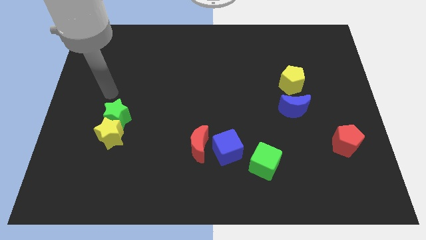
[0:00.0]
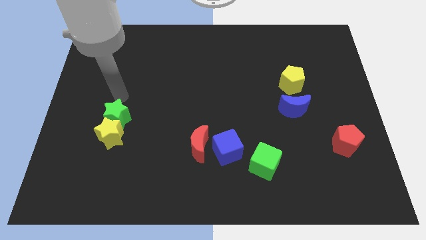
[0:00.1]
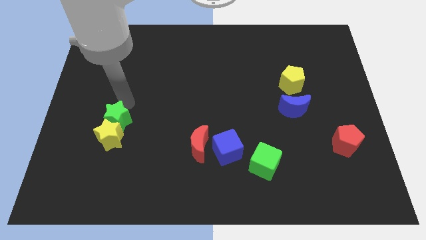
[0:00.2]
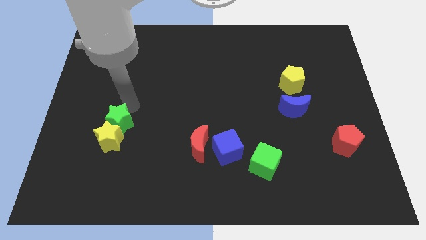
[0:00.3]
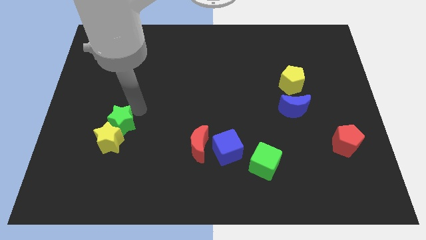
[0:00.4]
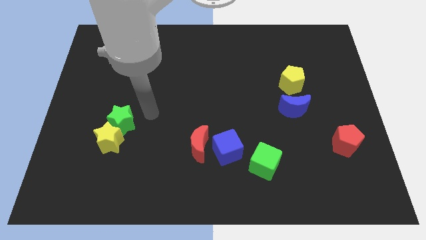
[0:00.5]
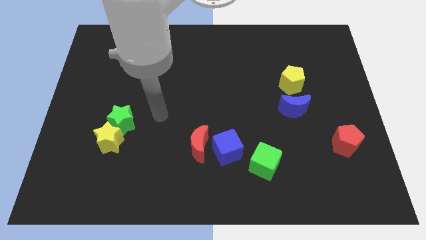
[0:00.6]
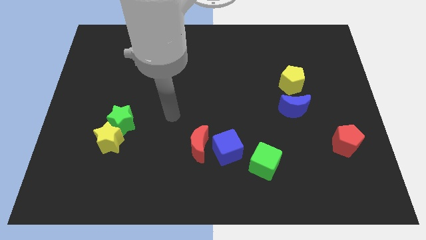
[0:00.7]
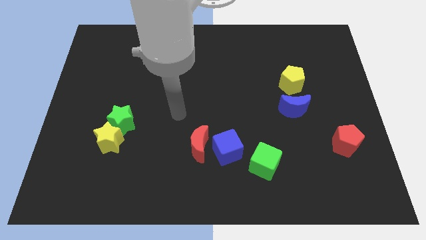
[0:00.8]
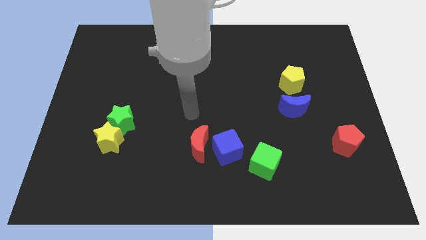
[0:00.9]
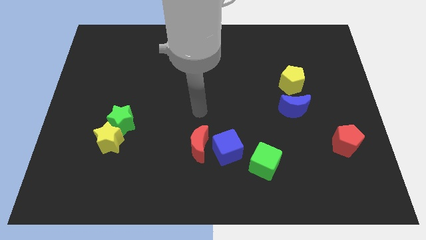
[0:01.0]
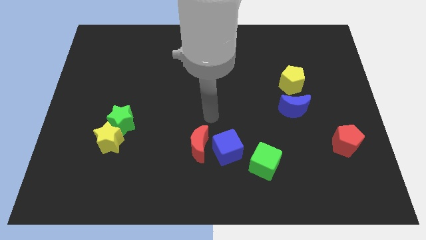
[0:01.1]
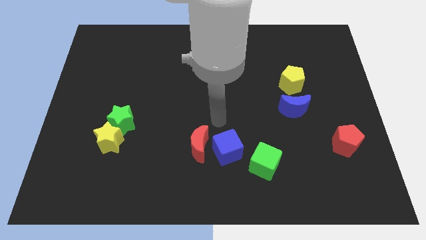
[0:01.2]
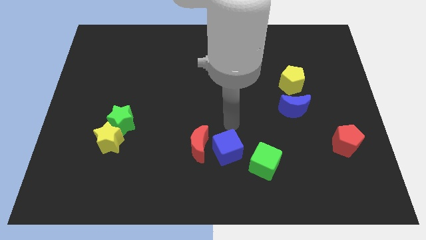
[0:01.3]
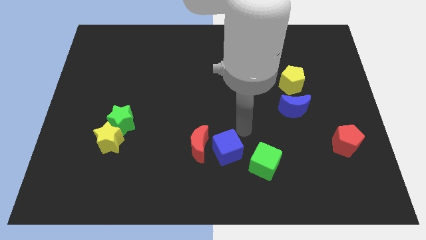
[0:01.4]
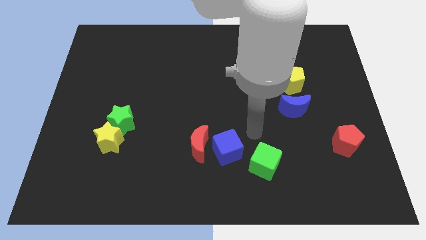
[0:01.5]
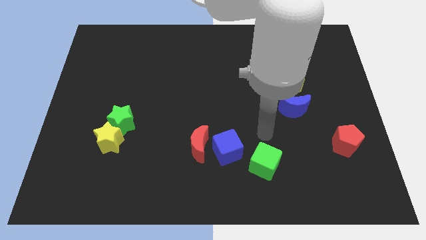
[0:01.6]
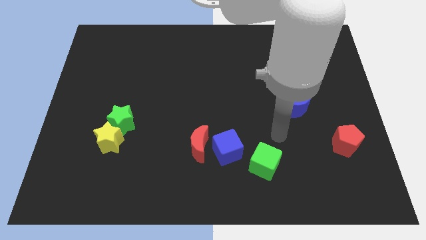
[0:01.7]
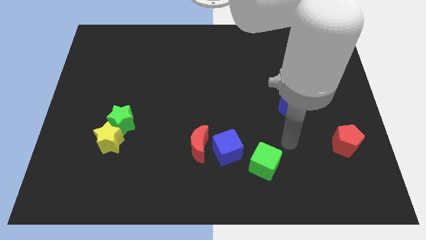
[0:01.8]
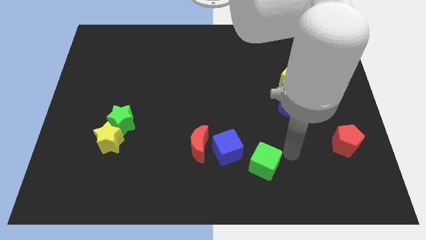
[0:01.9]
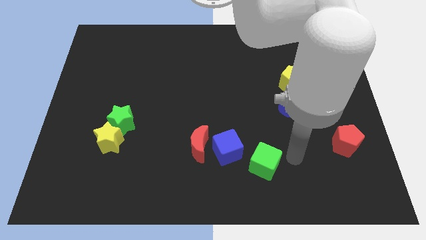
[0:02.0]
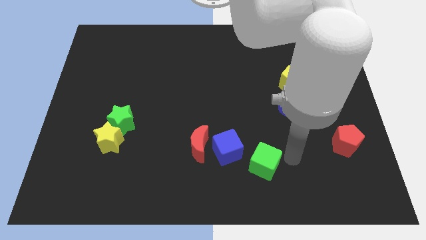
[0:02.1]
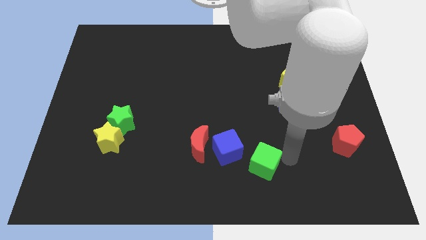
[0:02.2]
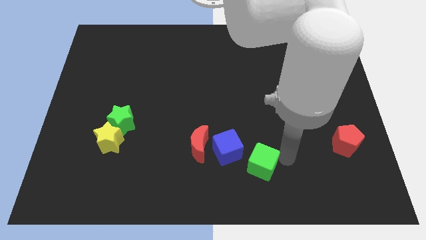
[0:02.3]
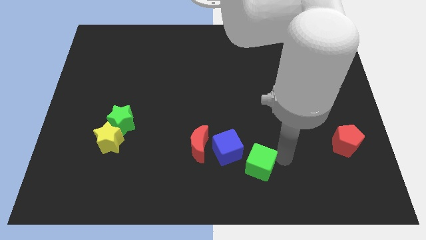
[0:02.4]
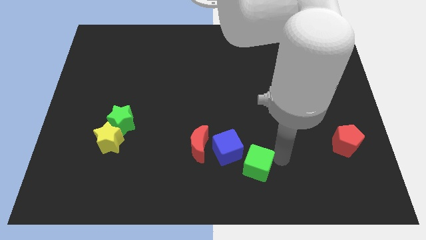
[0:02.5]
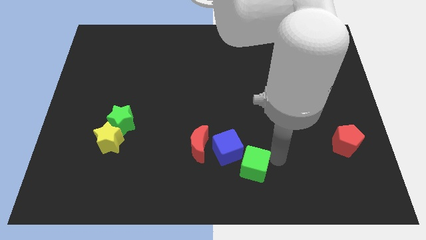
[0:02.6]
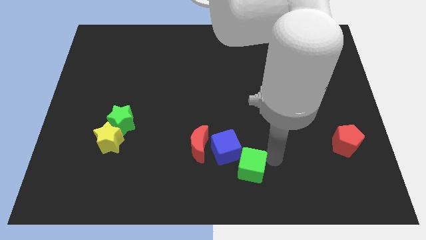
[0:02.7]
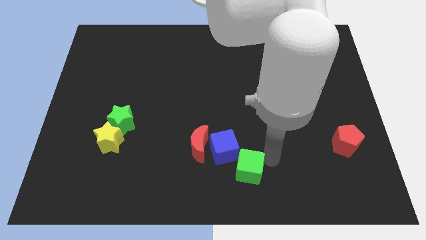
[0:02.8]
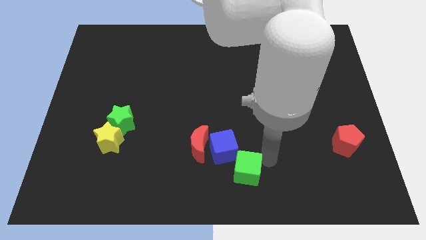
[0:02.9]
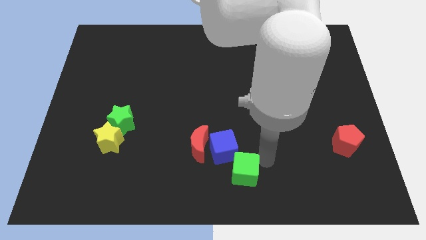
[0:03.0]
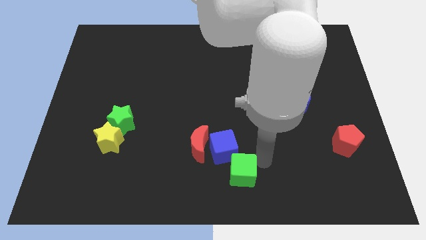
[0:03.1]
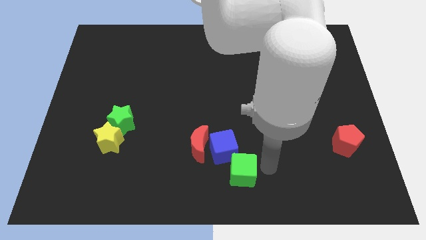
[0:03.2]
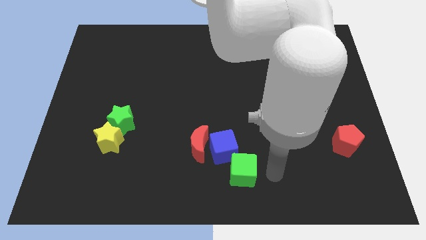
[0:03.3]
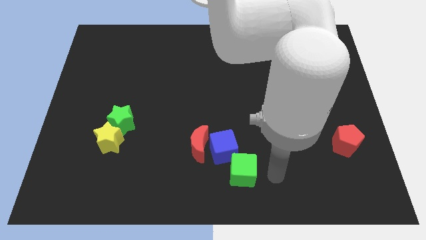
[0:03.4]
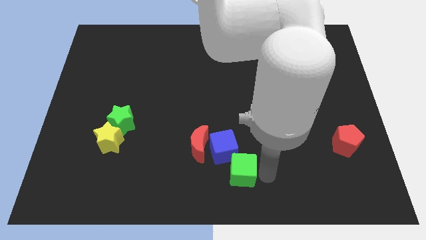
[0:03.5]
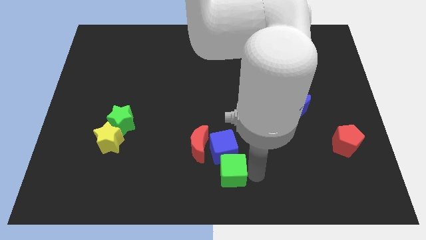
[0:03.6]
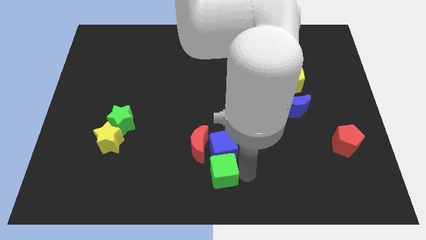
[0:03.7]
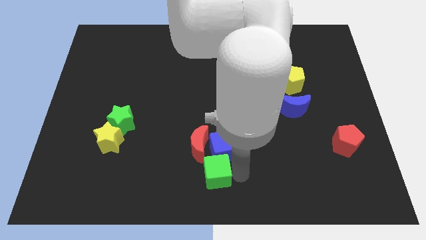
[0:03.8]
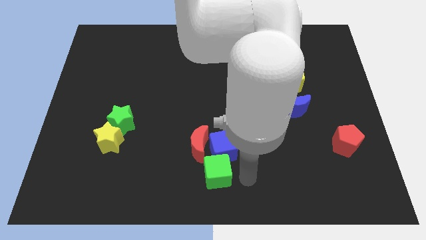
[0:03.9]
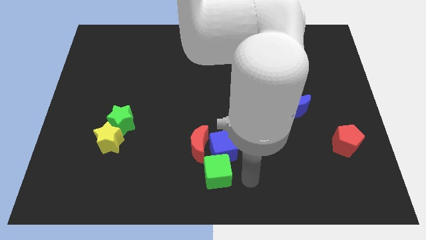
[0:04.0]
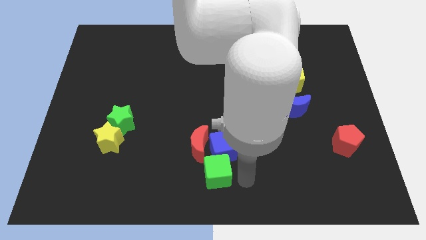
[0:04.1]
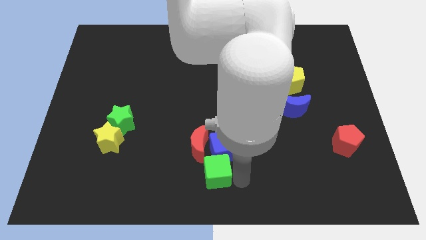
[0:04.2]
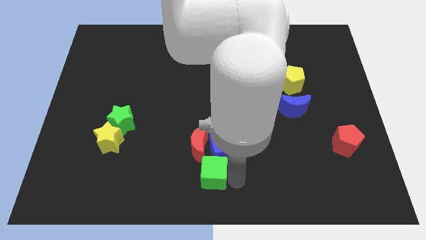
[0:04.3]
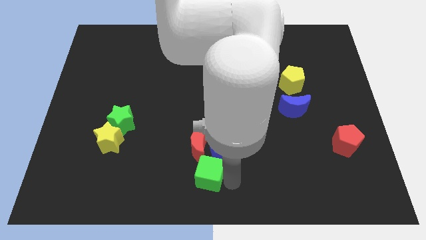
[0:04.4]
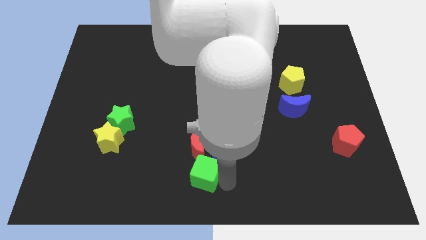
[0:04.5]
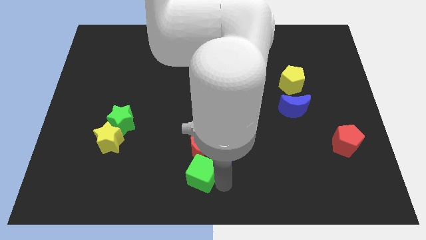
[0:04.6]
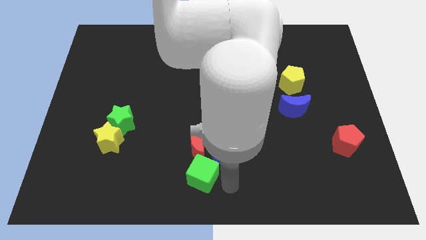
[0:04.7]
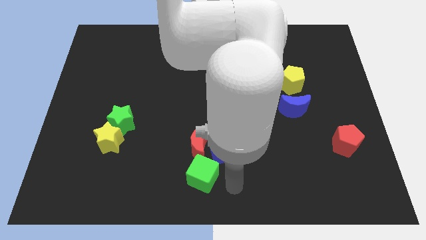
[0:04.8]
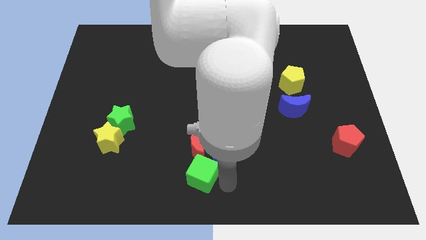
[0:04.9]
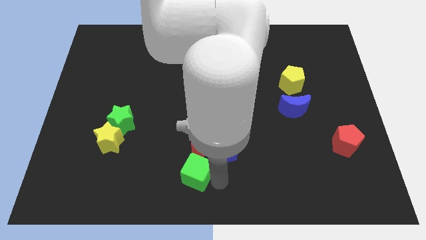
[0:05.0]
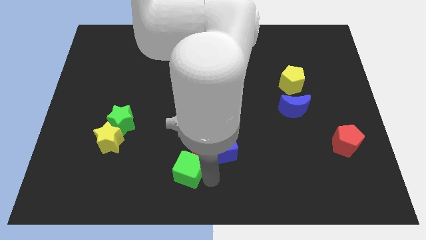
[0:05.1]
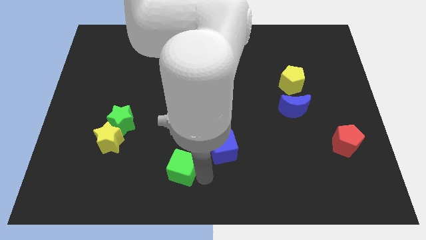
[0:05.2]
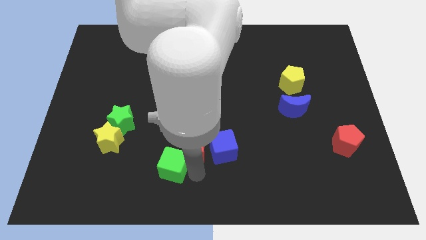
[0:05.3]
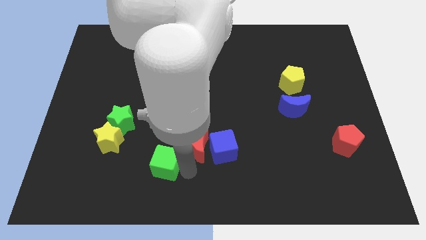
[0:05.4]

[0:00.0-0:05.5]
move the green cube left

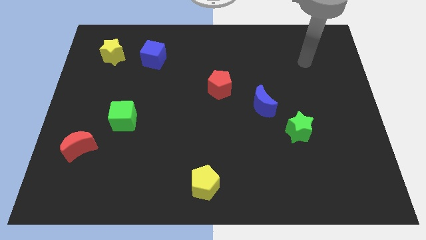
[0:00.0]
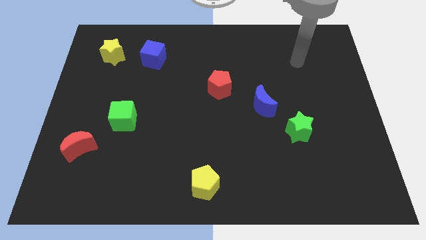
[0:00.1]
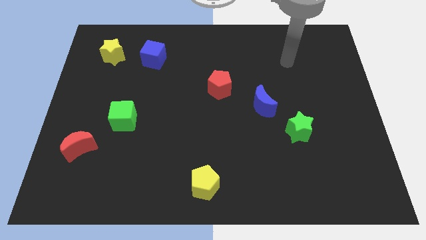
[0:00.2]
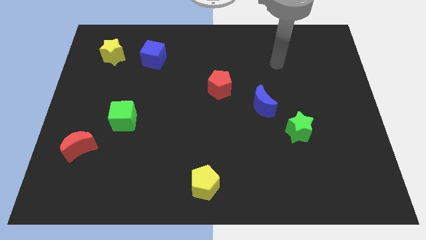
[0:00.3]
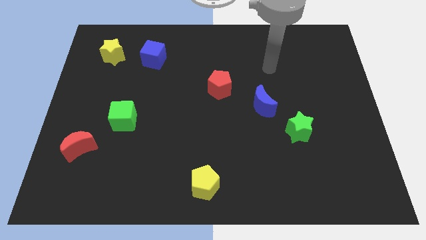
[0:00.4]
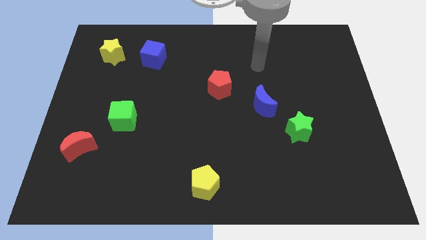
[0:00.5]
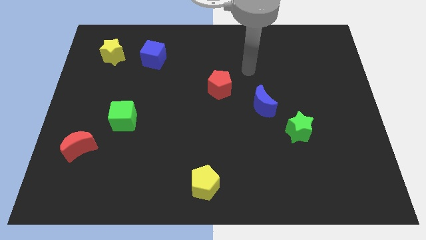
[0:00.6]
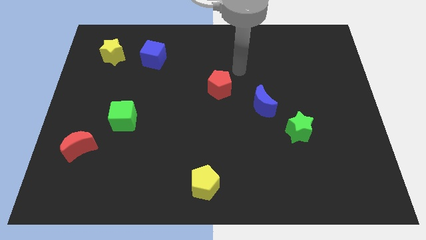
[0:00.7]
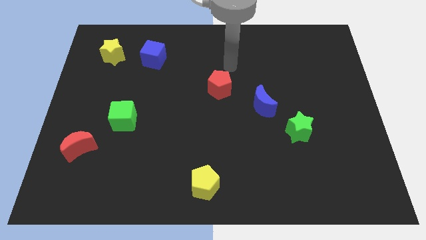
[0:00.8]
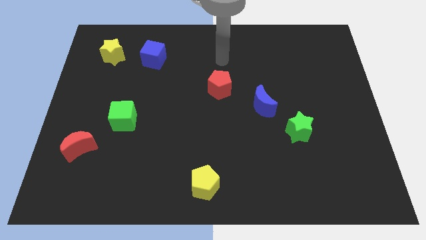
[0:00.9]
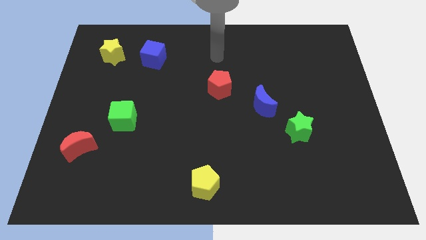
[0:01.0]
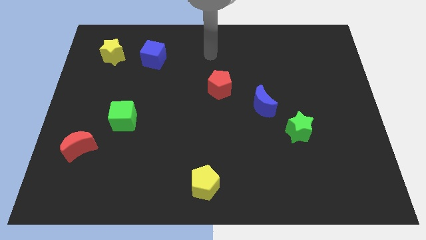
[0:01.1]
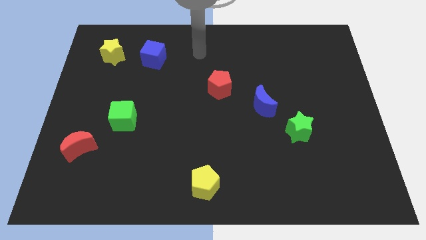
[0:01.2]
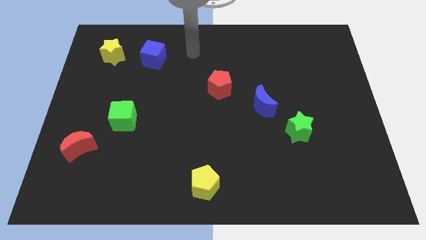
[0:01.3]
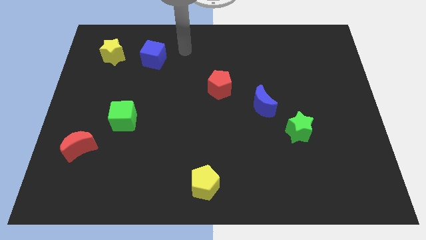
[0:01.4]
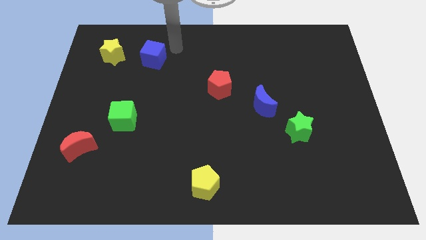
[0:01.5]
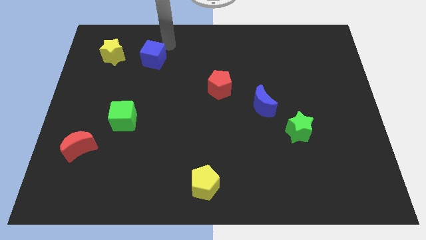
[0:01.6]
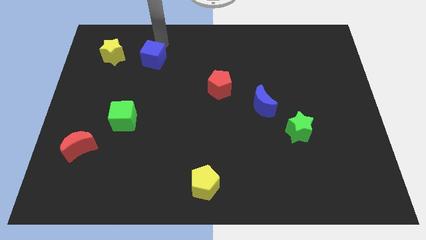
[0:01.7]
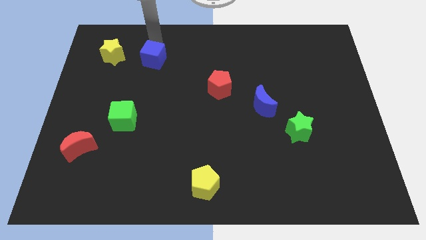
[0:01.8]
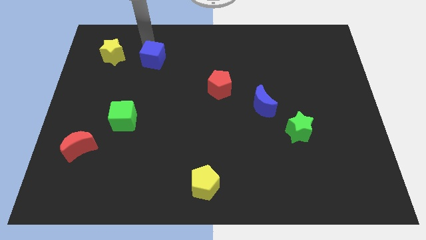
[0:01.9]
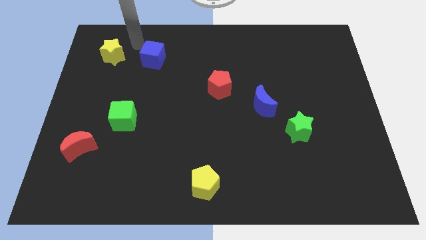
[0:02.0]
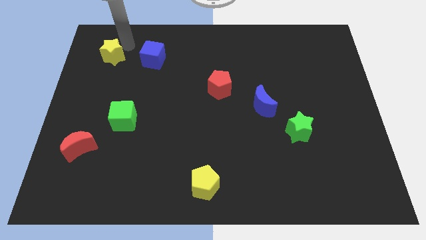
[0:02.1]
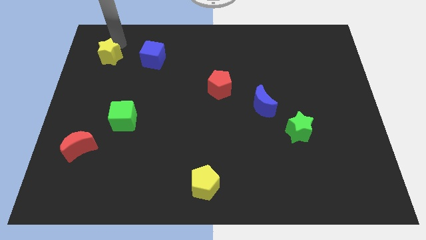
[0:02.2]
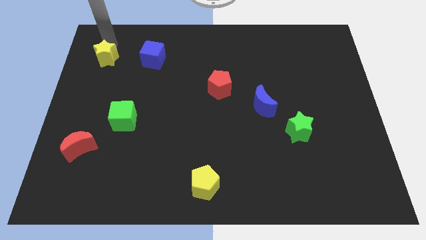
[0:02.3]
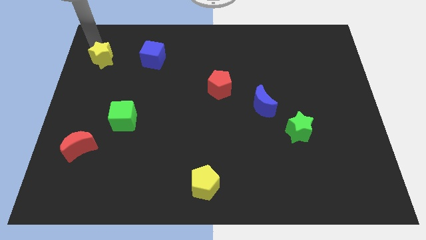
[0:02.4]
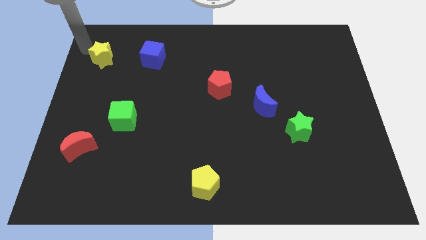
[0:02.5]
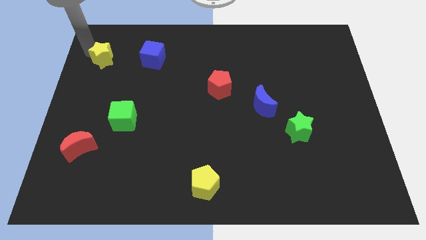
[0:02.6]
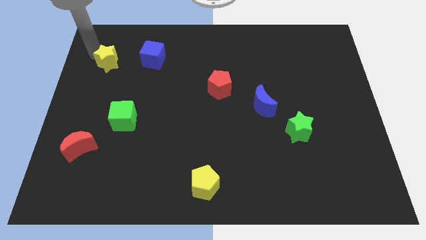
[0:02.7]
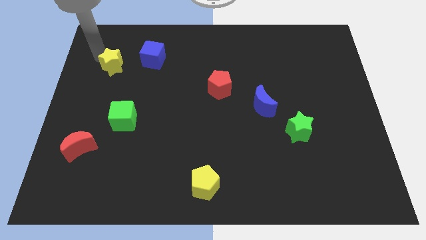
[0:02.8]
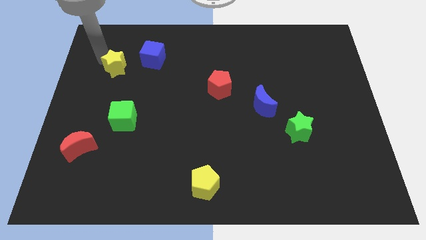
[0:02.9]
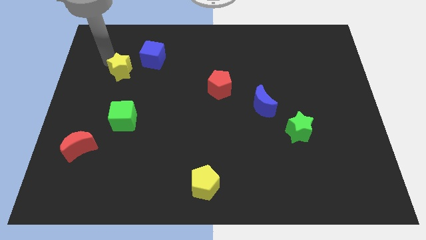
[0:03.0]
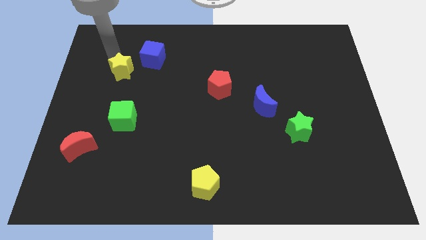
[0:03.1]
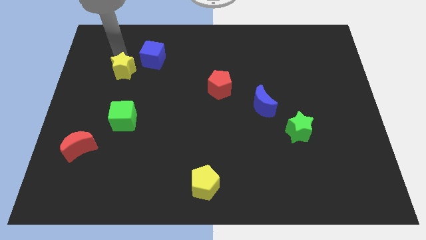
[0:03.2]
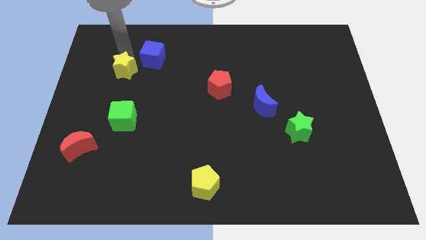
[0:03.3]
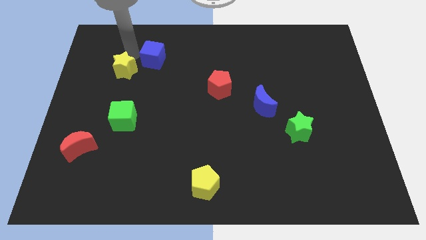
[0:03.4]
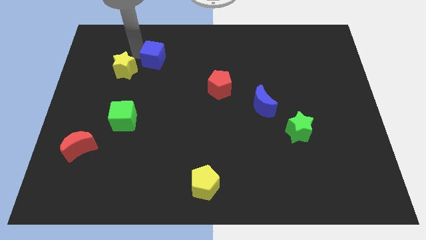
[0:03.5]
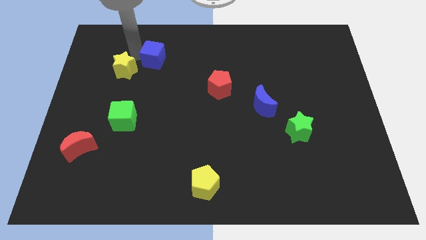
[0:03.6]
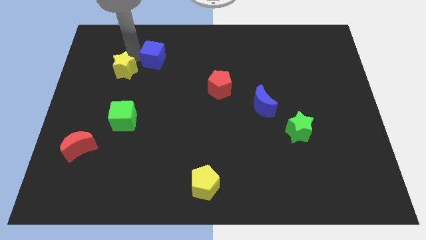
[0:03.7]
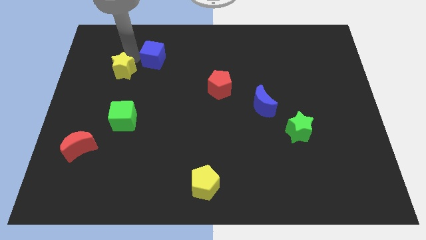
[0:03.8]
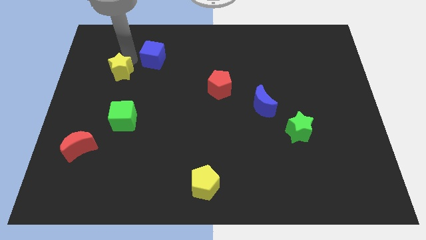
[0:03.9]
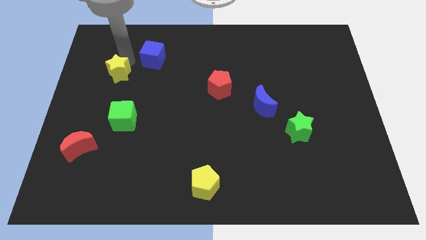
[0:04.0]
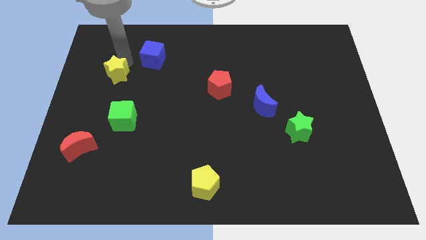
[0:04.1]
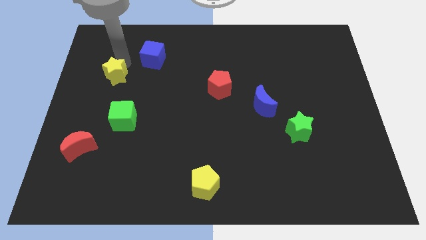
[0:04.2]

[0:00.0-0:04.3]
push the yellow star down a little bit
